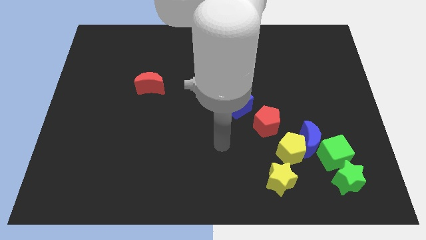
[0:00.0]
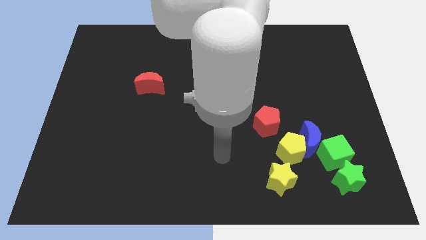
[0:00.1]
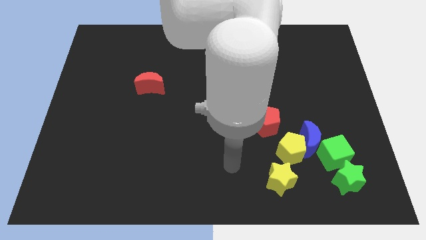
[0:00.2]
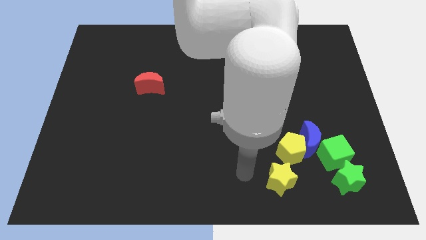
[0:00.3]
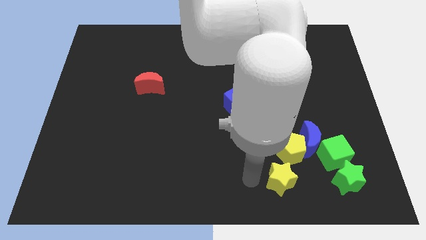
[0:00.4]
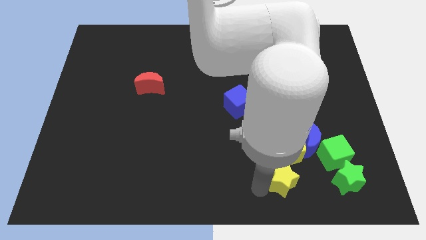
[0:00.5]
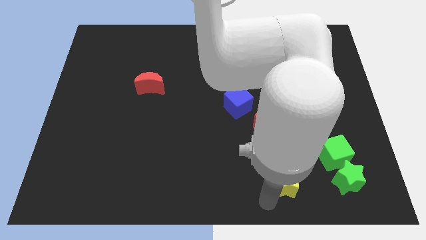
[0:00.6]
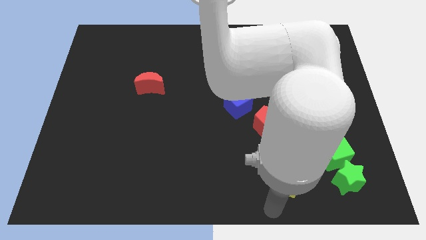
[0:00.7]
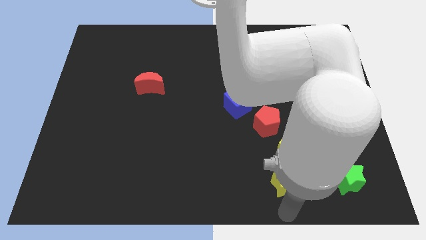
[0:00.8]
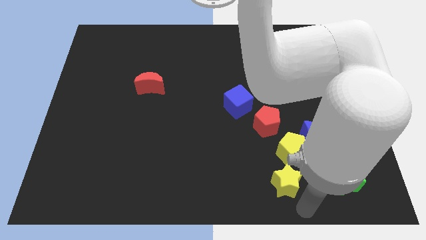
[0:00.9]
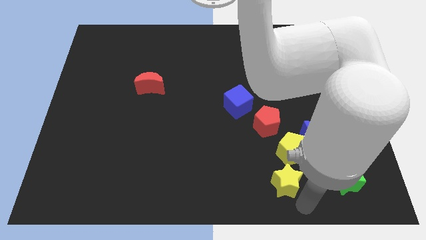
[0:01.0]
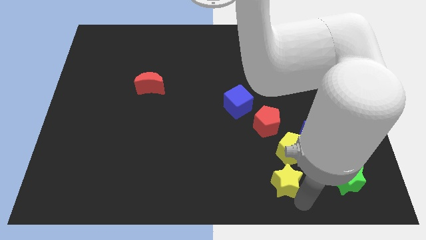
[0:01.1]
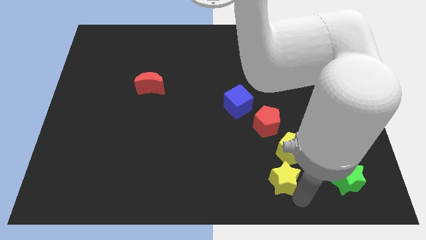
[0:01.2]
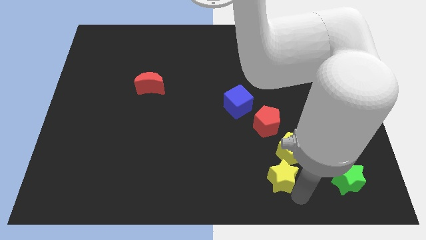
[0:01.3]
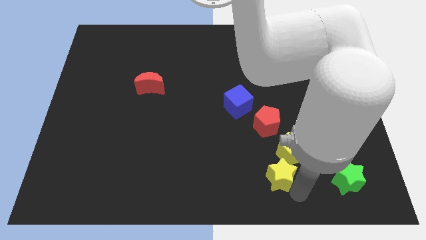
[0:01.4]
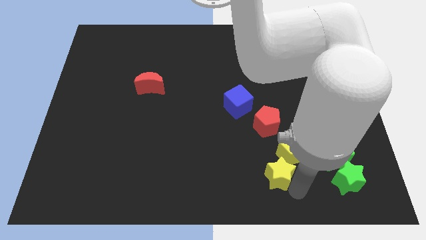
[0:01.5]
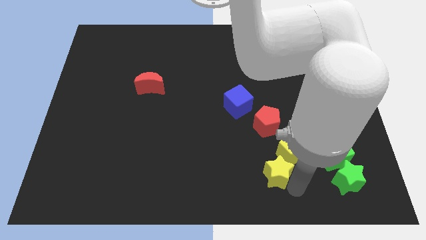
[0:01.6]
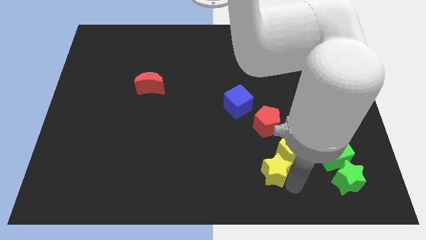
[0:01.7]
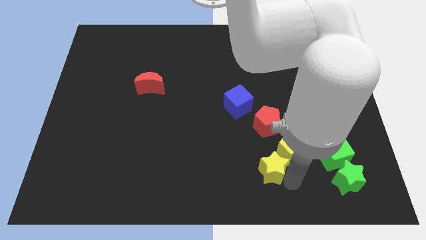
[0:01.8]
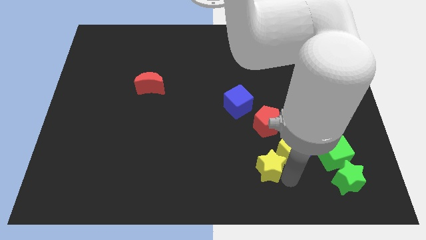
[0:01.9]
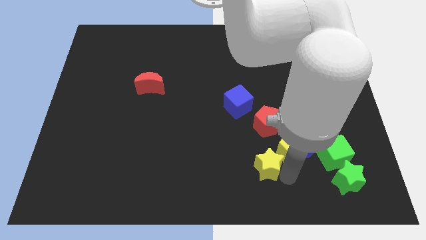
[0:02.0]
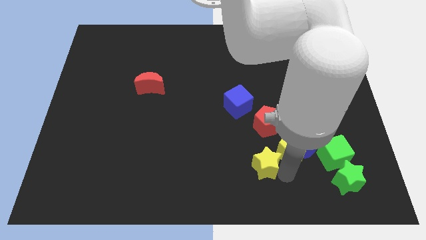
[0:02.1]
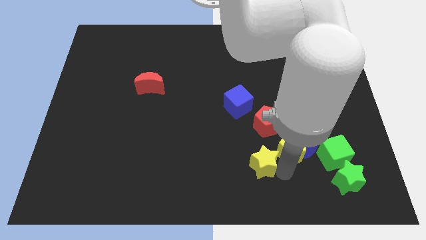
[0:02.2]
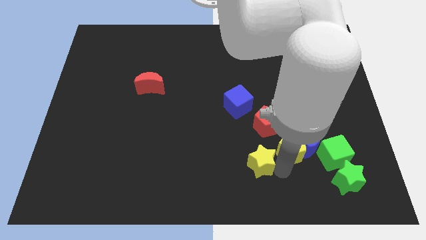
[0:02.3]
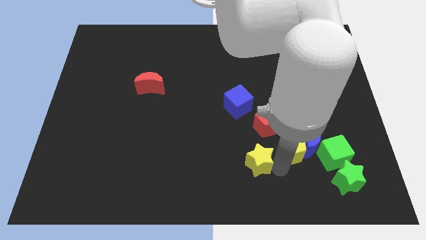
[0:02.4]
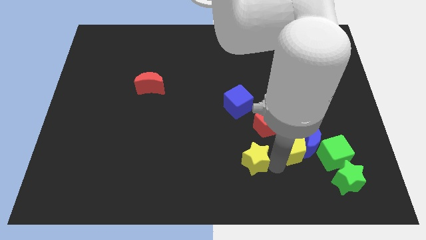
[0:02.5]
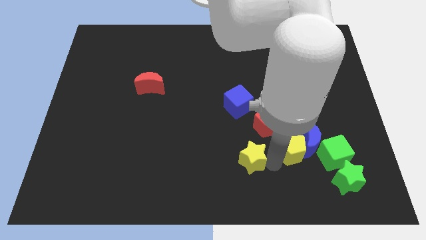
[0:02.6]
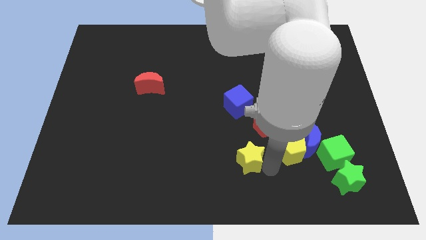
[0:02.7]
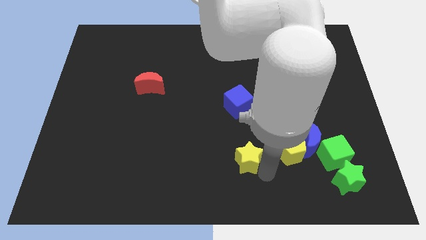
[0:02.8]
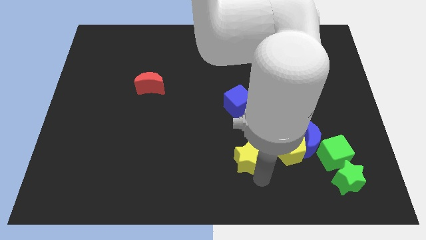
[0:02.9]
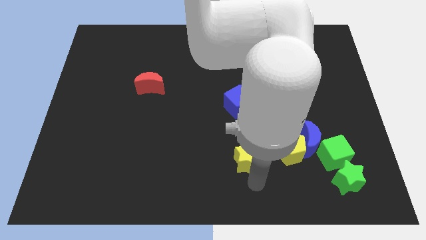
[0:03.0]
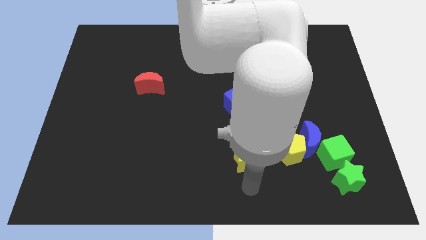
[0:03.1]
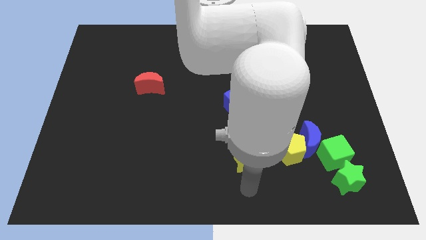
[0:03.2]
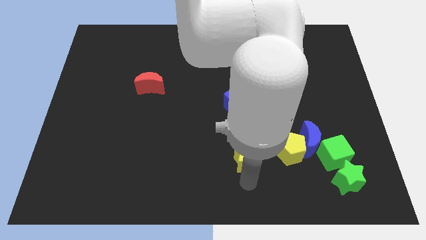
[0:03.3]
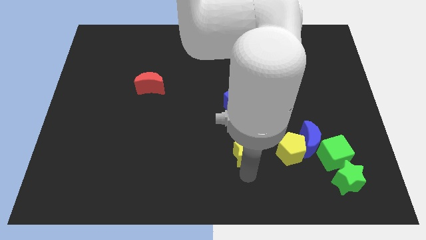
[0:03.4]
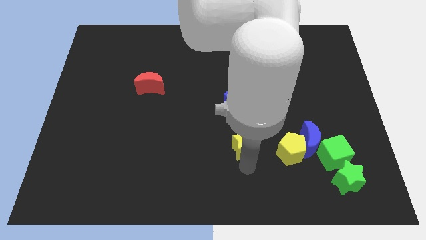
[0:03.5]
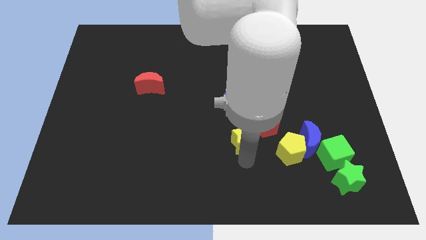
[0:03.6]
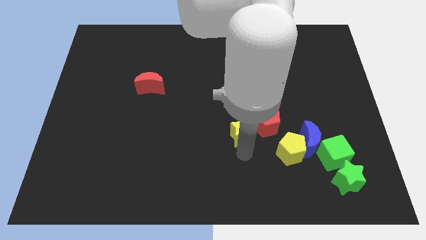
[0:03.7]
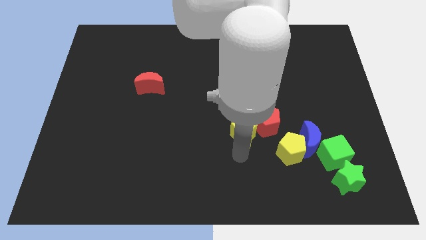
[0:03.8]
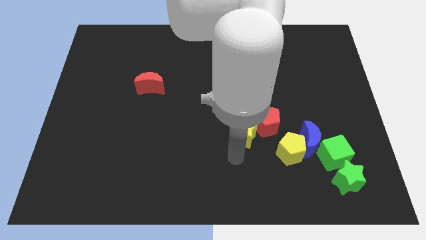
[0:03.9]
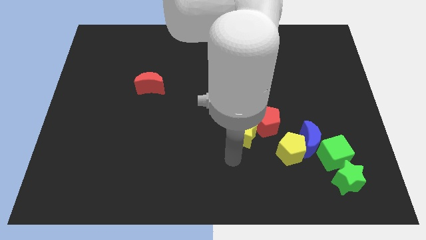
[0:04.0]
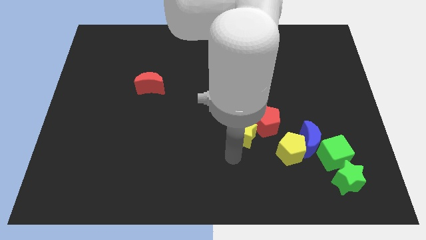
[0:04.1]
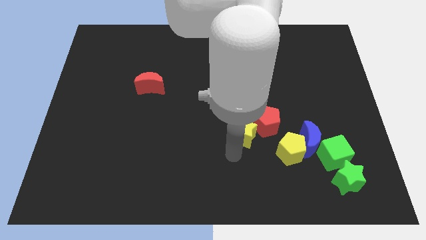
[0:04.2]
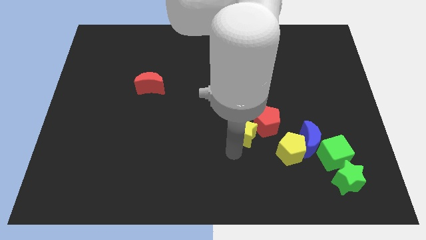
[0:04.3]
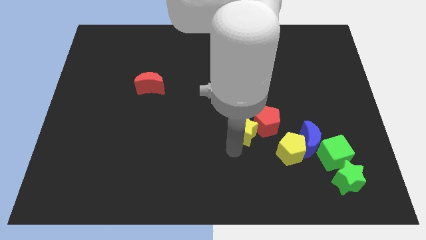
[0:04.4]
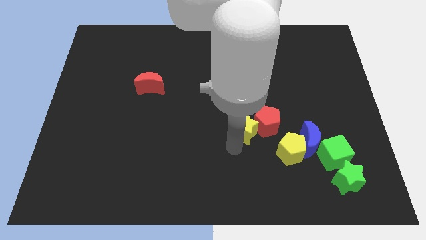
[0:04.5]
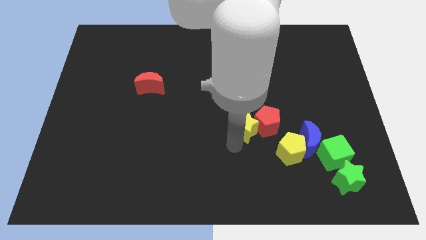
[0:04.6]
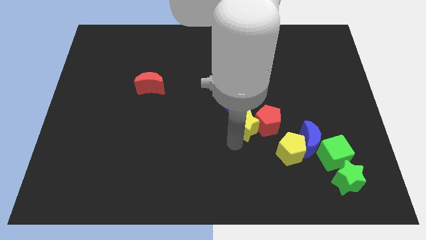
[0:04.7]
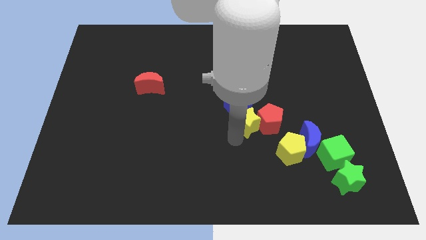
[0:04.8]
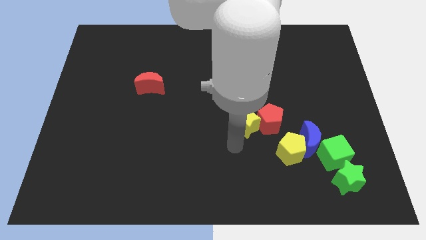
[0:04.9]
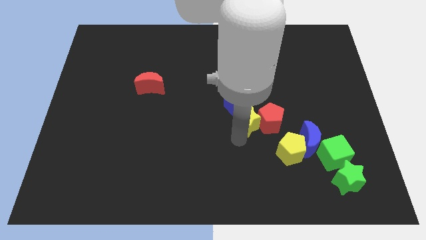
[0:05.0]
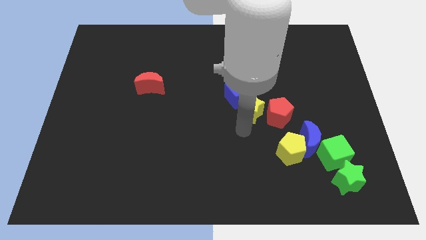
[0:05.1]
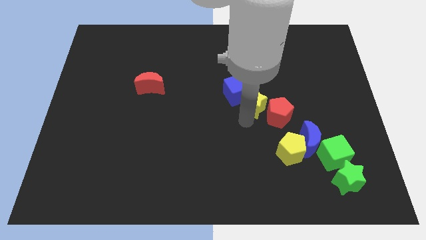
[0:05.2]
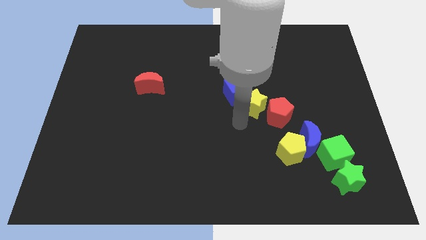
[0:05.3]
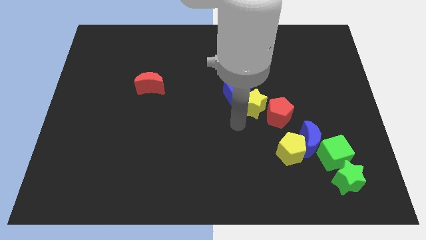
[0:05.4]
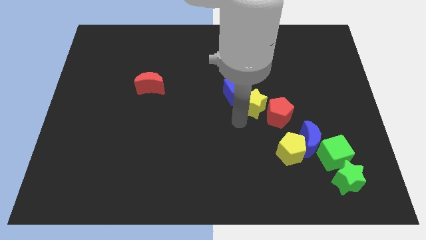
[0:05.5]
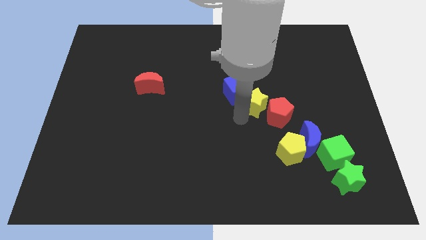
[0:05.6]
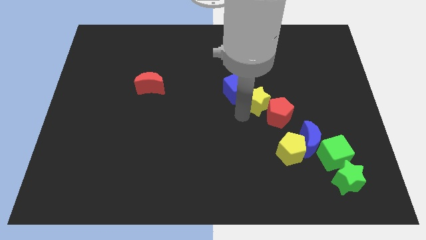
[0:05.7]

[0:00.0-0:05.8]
slide the yellow star above the red pentagon

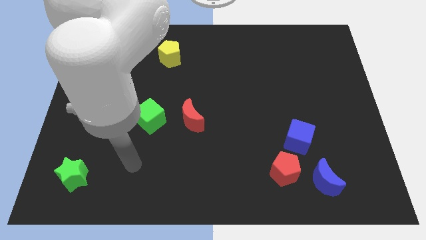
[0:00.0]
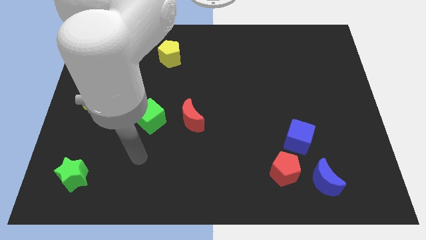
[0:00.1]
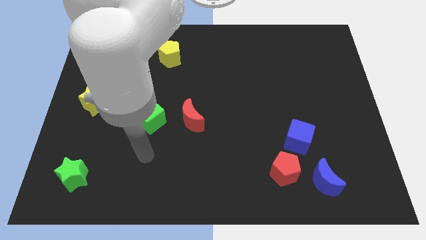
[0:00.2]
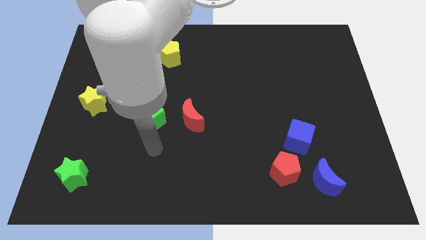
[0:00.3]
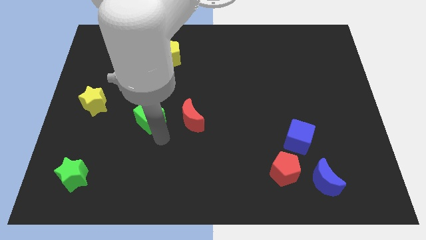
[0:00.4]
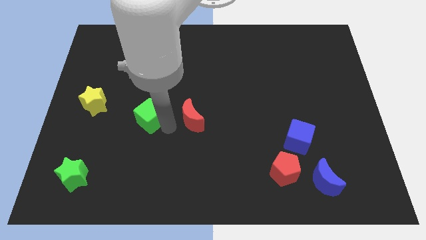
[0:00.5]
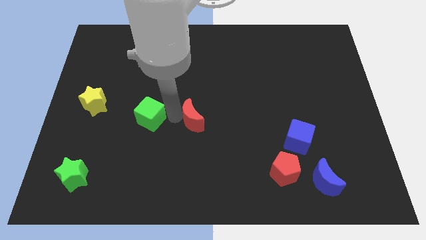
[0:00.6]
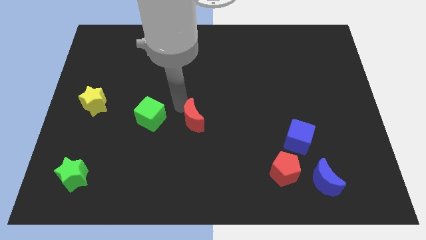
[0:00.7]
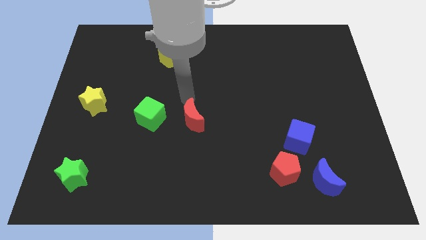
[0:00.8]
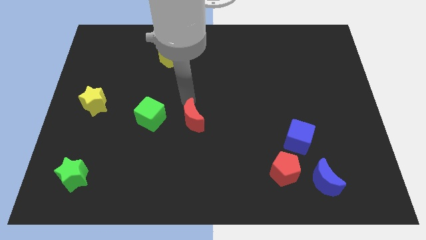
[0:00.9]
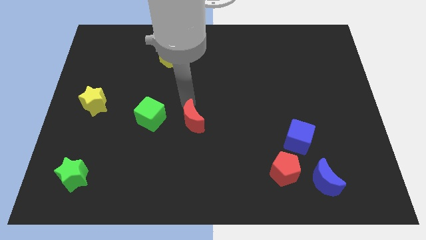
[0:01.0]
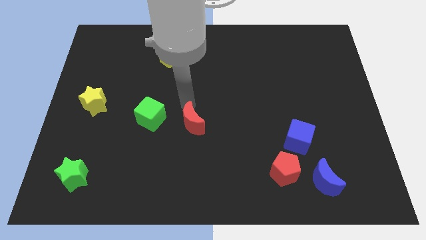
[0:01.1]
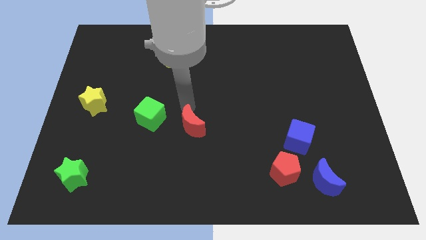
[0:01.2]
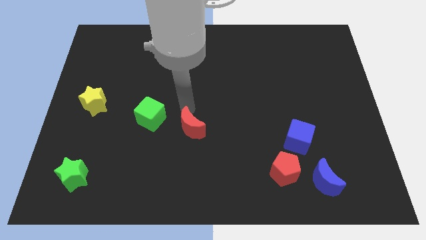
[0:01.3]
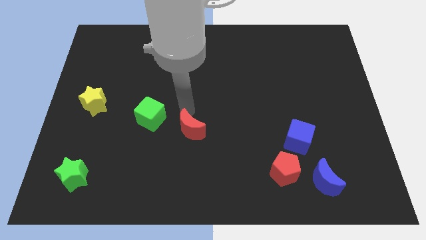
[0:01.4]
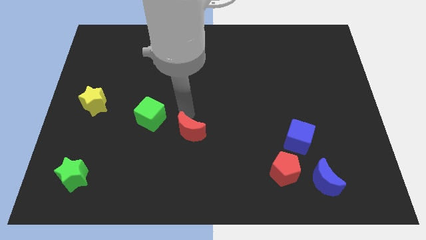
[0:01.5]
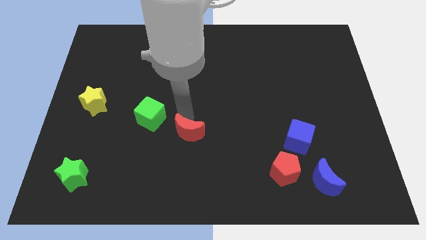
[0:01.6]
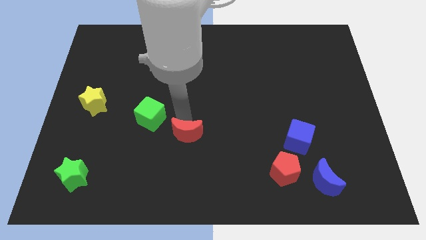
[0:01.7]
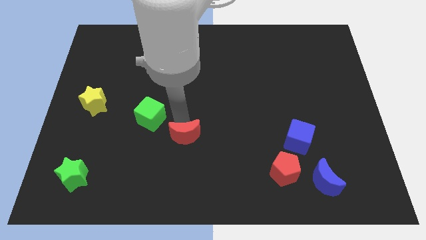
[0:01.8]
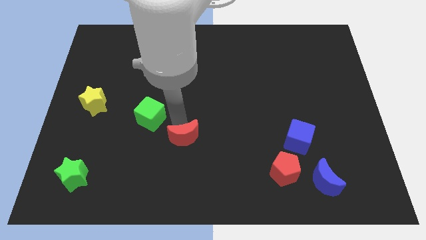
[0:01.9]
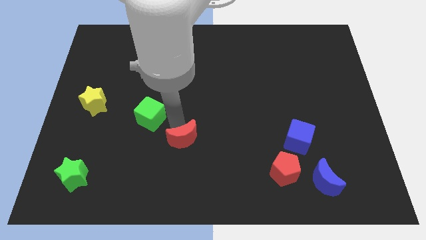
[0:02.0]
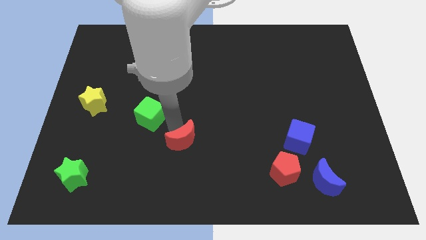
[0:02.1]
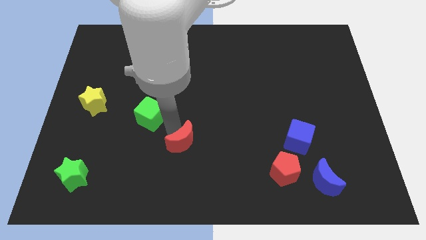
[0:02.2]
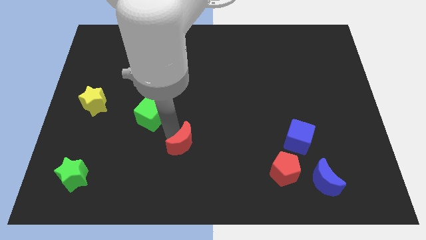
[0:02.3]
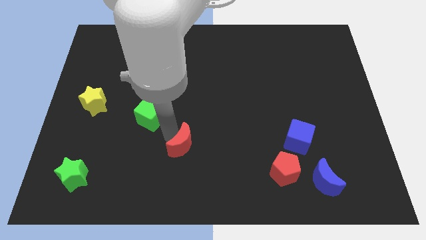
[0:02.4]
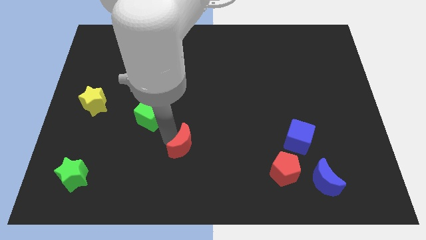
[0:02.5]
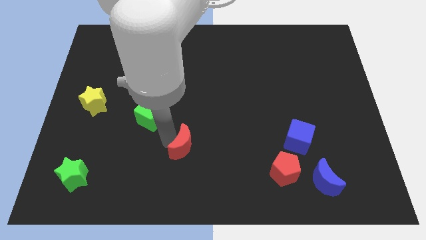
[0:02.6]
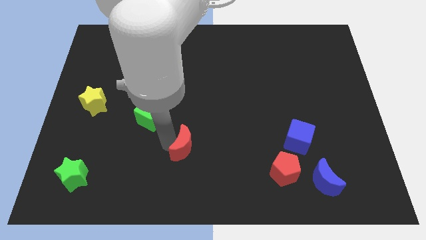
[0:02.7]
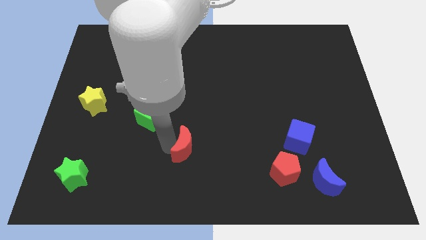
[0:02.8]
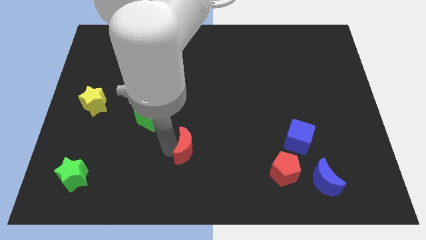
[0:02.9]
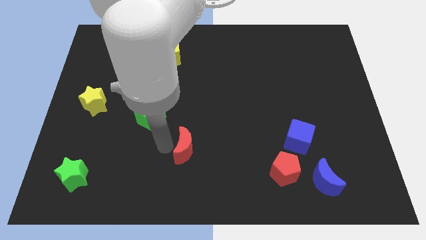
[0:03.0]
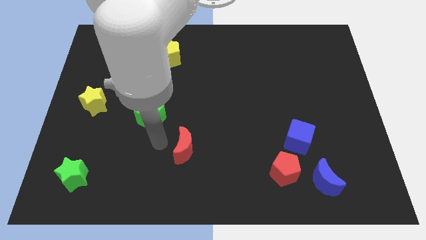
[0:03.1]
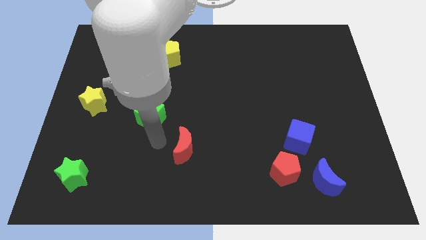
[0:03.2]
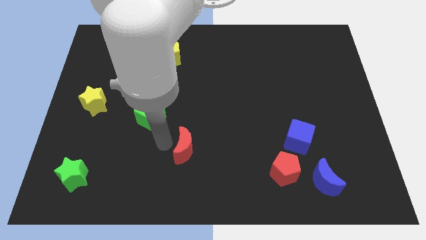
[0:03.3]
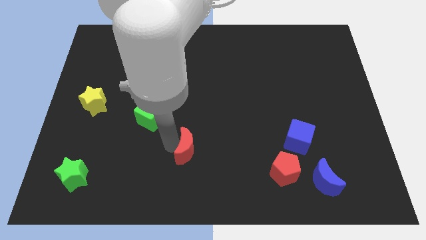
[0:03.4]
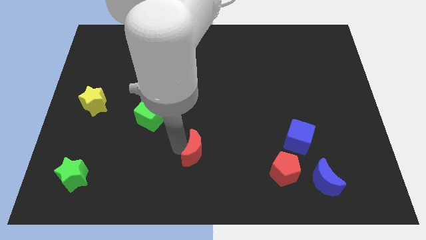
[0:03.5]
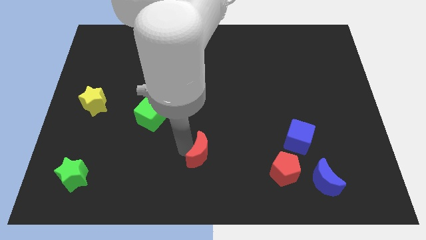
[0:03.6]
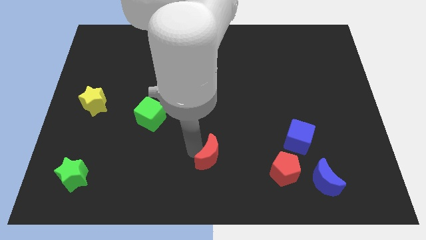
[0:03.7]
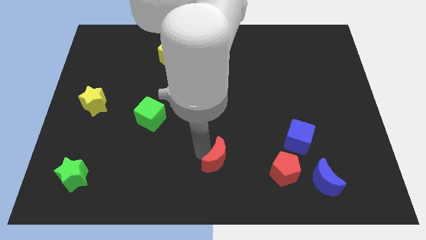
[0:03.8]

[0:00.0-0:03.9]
slide the red moon just left of the red pentagon
